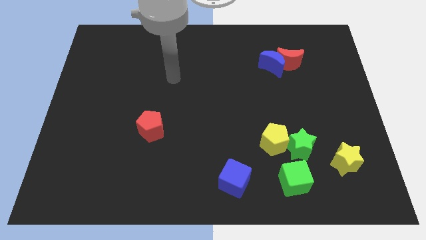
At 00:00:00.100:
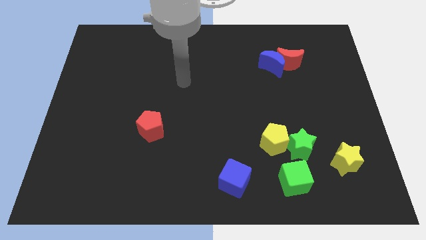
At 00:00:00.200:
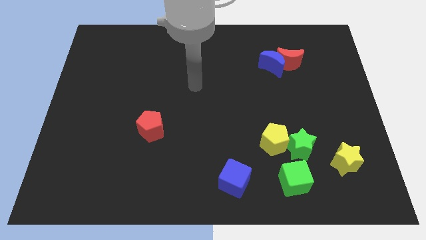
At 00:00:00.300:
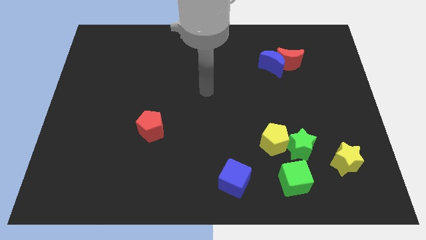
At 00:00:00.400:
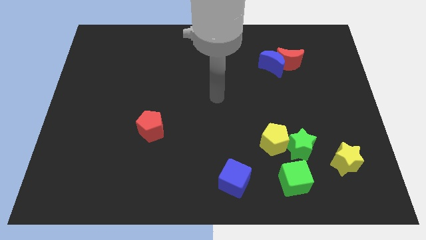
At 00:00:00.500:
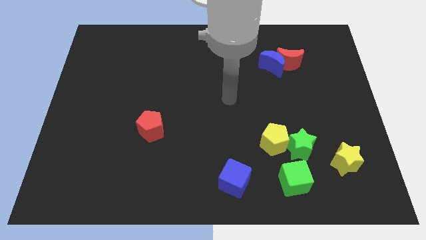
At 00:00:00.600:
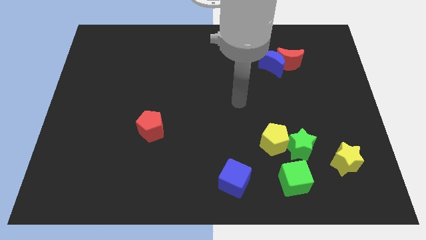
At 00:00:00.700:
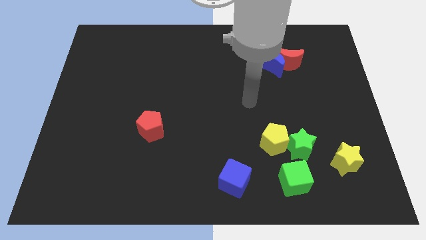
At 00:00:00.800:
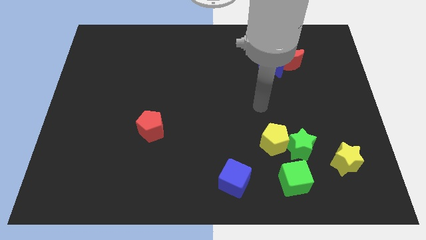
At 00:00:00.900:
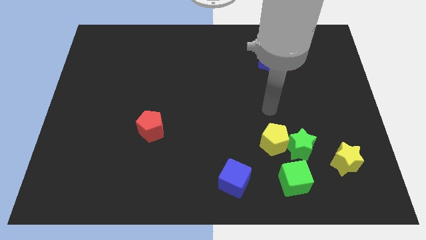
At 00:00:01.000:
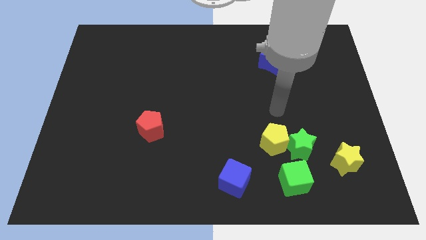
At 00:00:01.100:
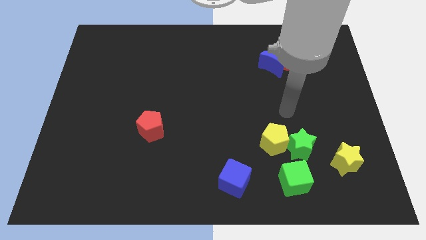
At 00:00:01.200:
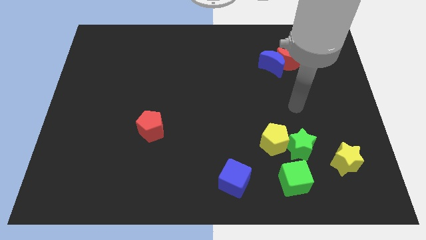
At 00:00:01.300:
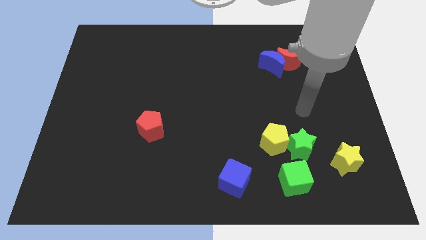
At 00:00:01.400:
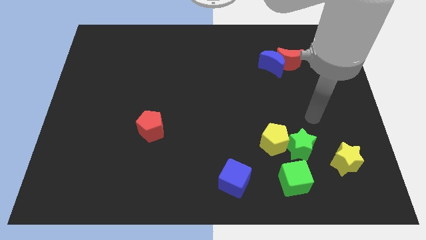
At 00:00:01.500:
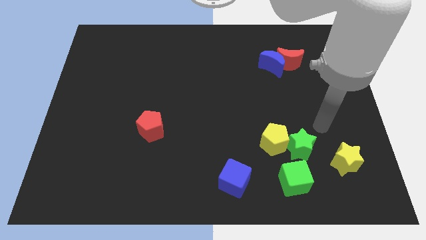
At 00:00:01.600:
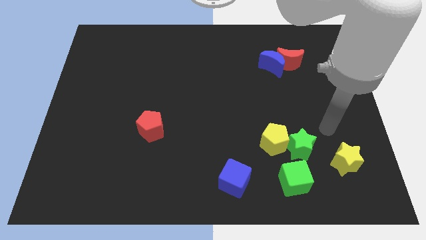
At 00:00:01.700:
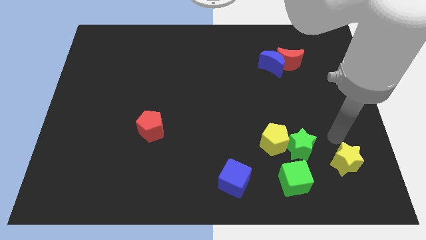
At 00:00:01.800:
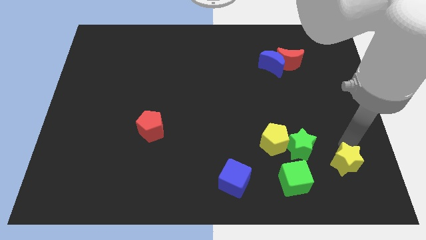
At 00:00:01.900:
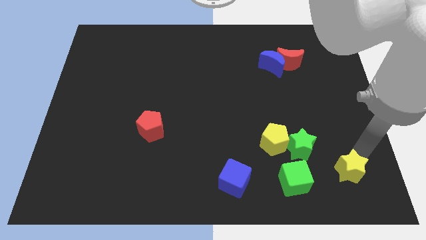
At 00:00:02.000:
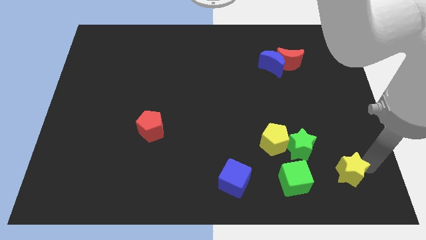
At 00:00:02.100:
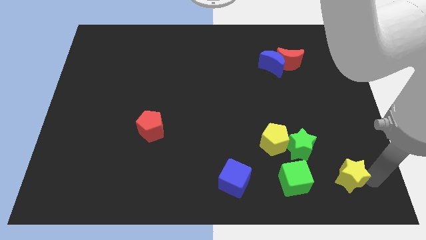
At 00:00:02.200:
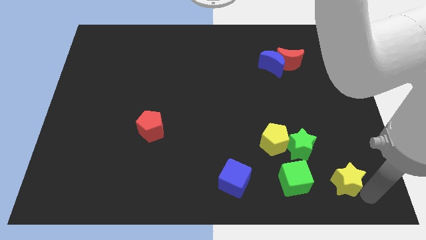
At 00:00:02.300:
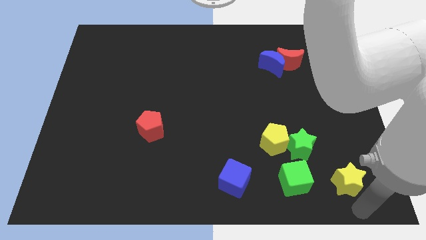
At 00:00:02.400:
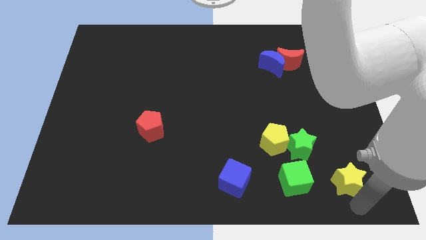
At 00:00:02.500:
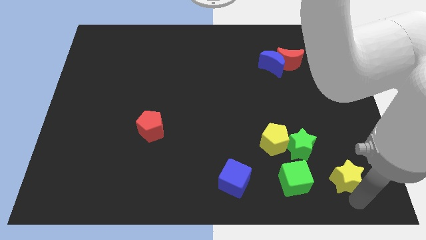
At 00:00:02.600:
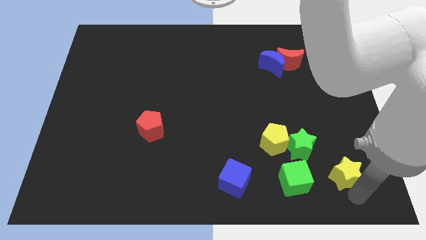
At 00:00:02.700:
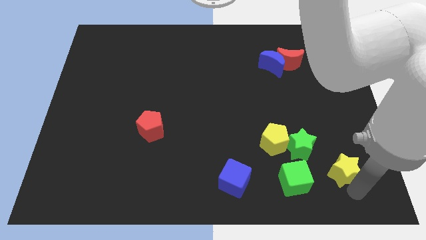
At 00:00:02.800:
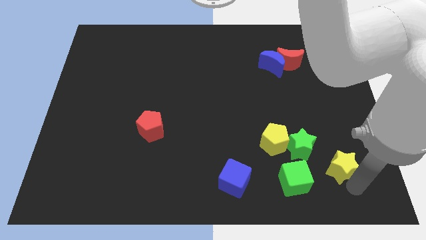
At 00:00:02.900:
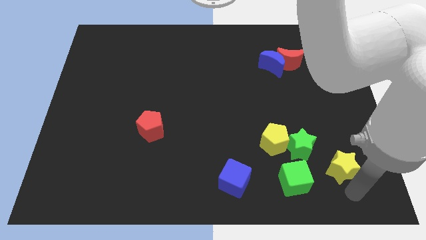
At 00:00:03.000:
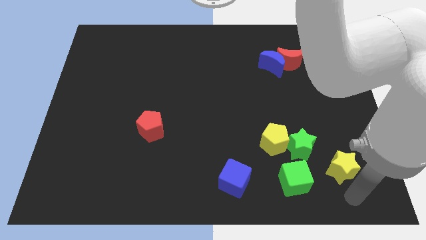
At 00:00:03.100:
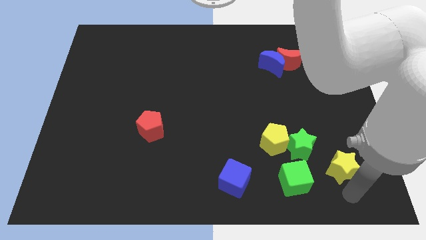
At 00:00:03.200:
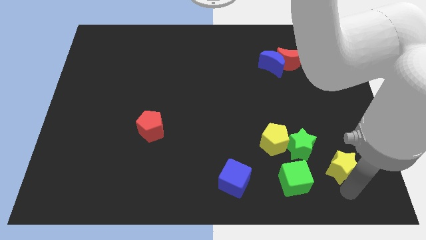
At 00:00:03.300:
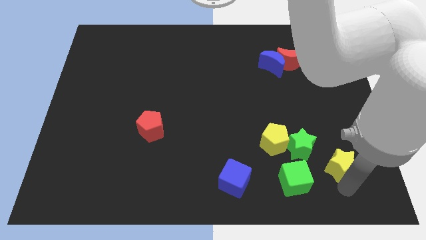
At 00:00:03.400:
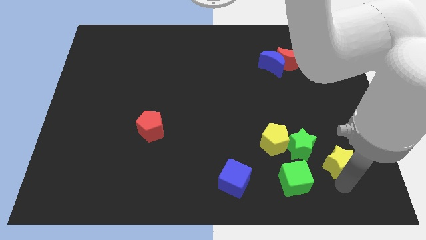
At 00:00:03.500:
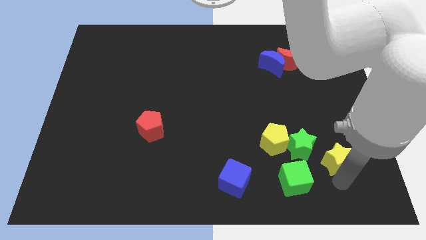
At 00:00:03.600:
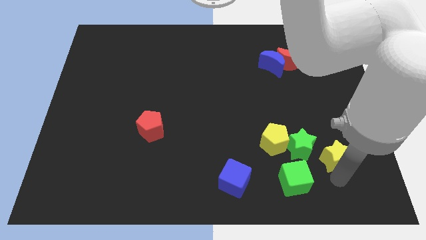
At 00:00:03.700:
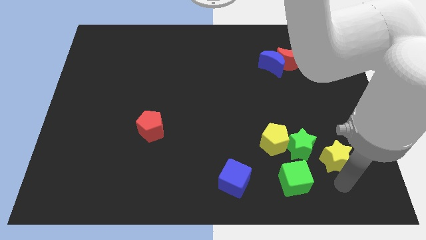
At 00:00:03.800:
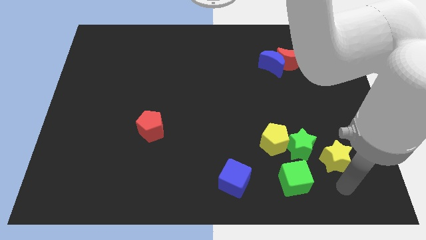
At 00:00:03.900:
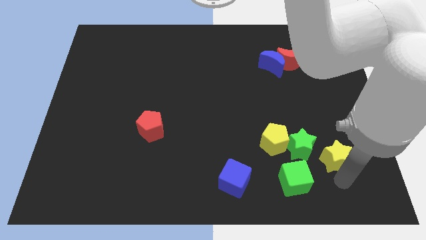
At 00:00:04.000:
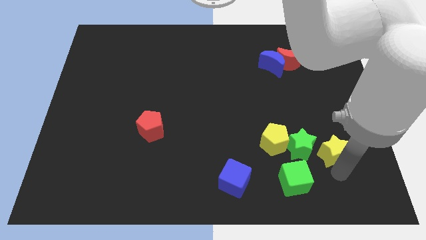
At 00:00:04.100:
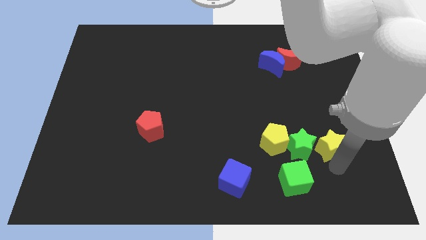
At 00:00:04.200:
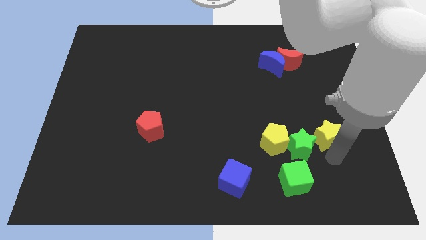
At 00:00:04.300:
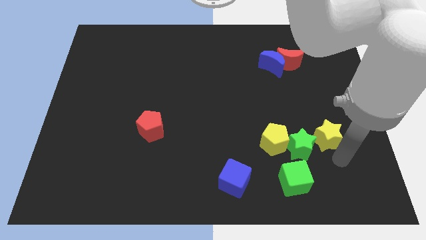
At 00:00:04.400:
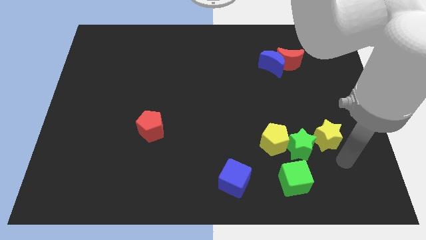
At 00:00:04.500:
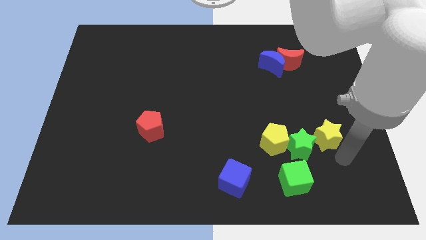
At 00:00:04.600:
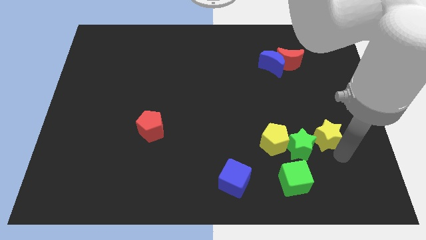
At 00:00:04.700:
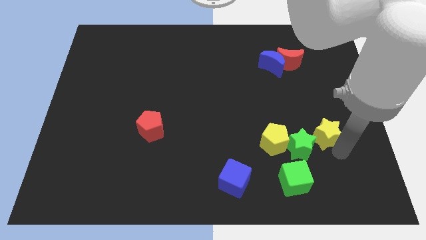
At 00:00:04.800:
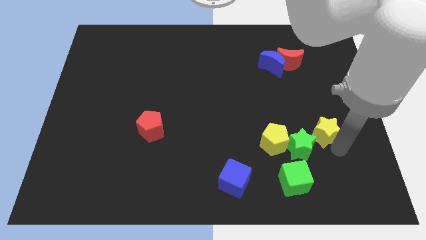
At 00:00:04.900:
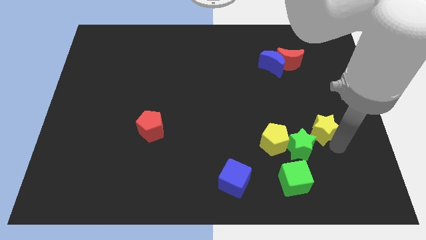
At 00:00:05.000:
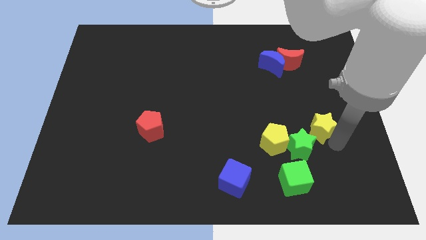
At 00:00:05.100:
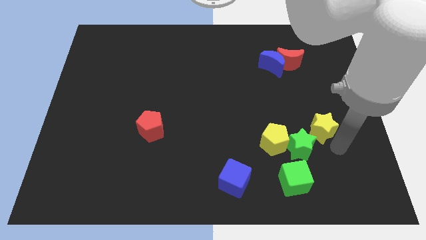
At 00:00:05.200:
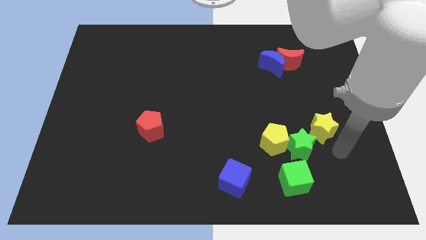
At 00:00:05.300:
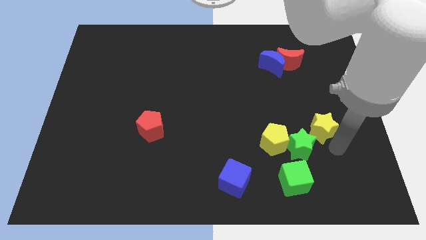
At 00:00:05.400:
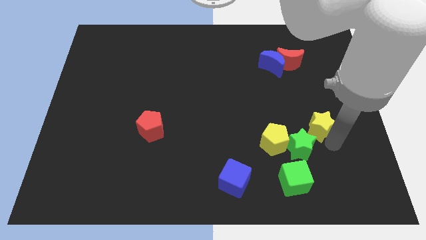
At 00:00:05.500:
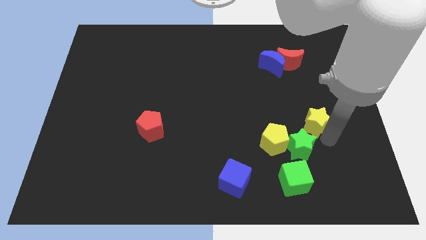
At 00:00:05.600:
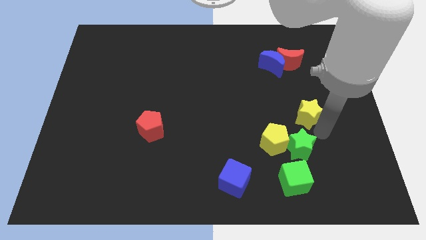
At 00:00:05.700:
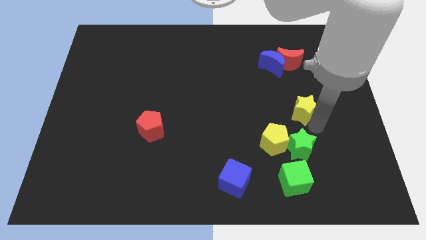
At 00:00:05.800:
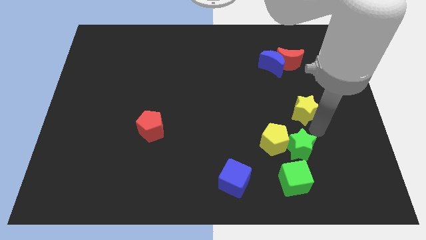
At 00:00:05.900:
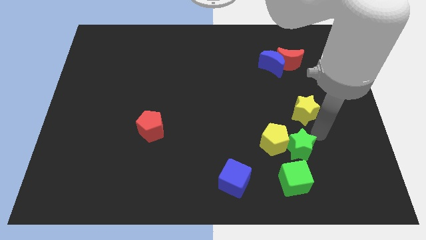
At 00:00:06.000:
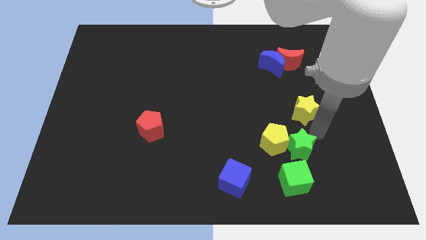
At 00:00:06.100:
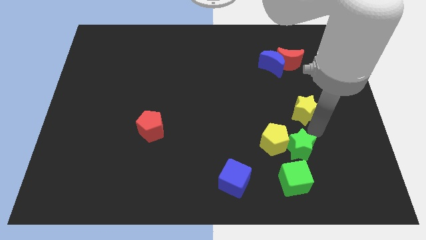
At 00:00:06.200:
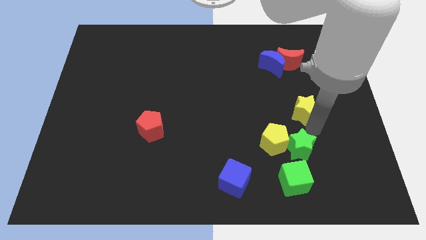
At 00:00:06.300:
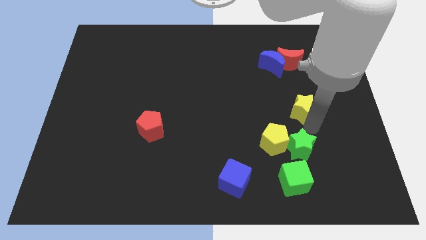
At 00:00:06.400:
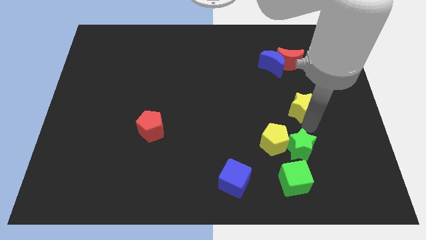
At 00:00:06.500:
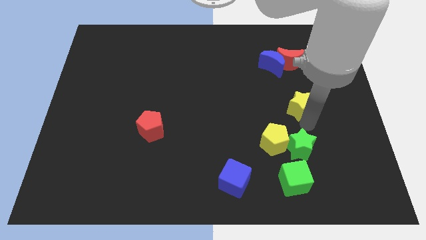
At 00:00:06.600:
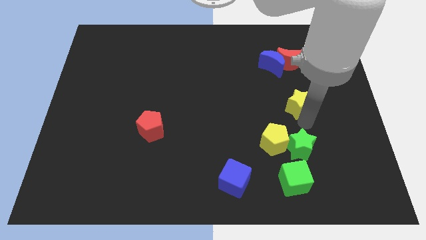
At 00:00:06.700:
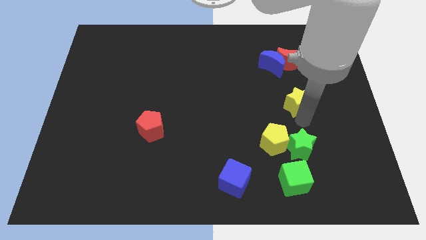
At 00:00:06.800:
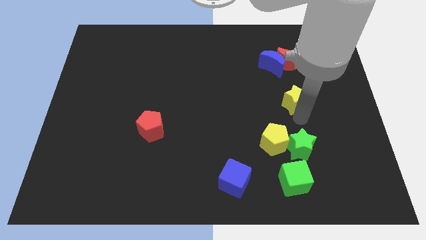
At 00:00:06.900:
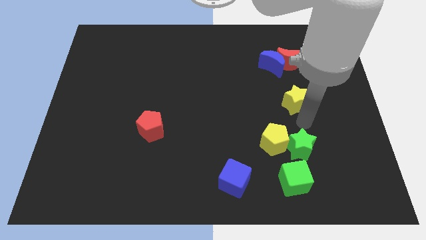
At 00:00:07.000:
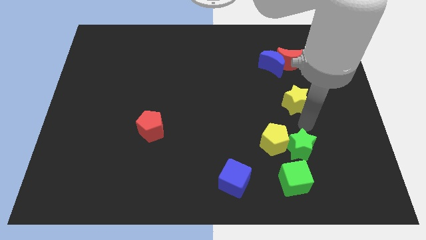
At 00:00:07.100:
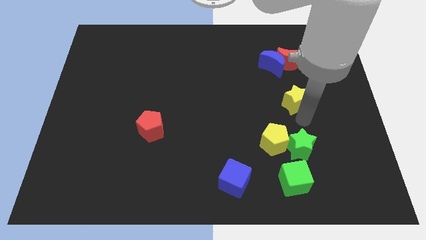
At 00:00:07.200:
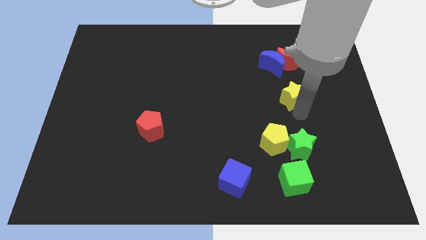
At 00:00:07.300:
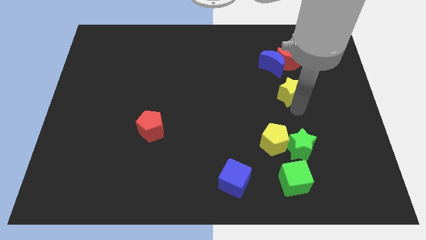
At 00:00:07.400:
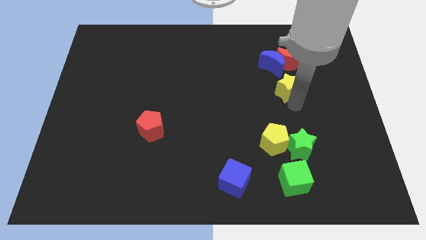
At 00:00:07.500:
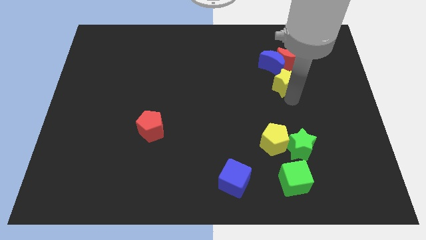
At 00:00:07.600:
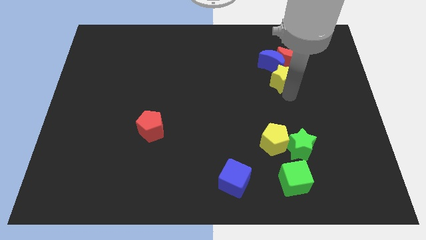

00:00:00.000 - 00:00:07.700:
slide the yellow star to the blue moon

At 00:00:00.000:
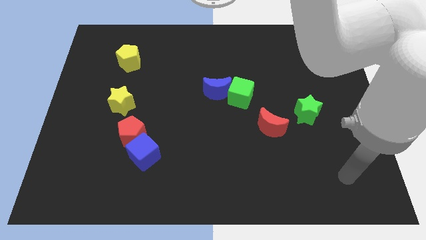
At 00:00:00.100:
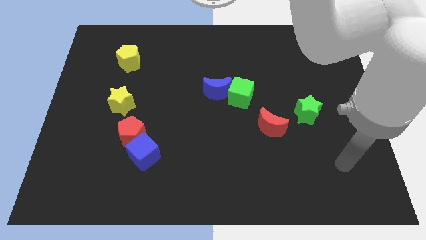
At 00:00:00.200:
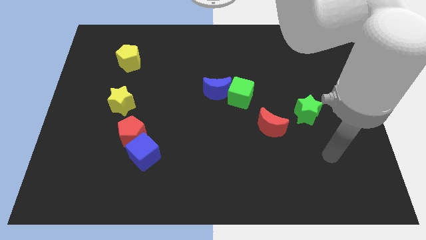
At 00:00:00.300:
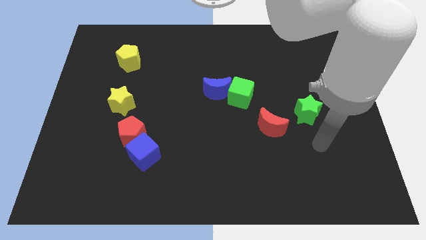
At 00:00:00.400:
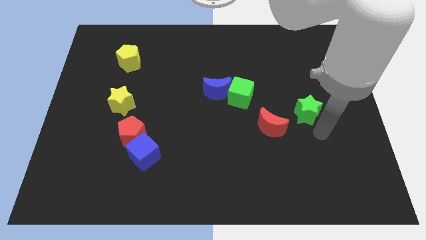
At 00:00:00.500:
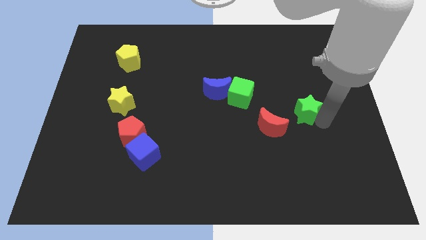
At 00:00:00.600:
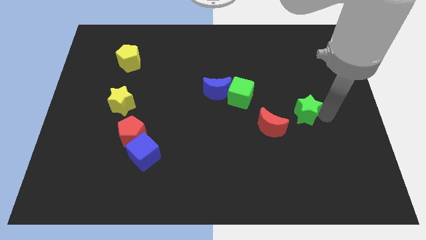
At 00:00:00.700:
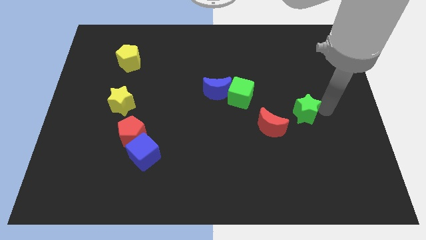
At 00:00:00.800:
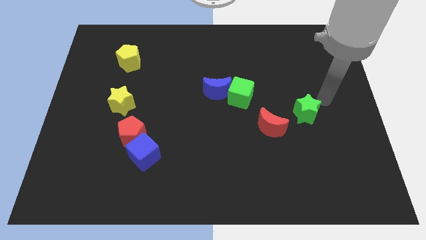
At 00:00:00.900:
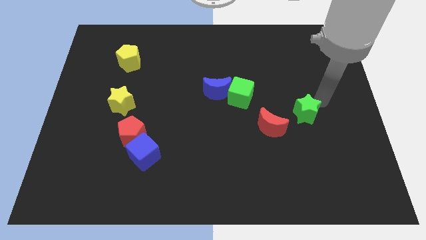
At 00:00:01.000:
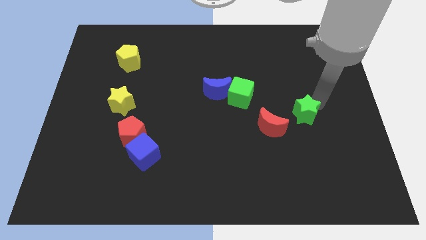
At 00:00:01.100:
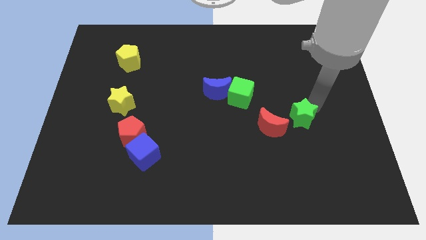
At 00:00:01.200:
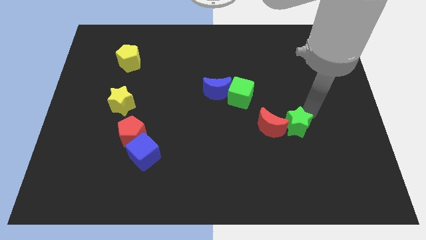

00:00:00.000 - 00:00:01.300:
move the green star close to the red moon
